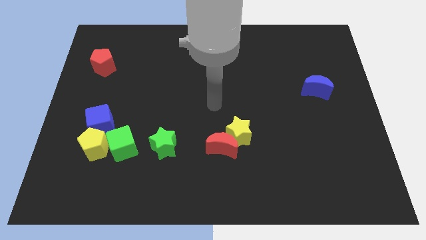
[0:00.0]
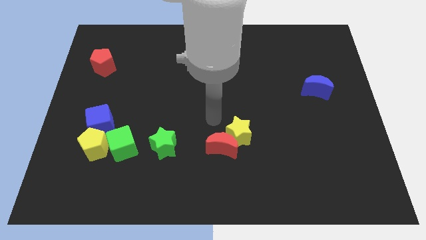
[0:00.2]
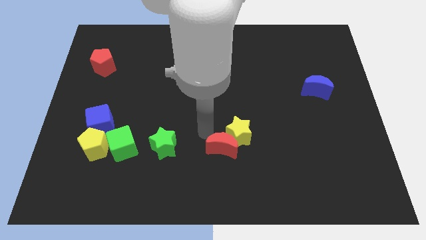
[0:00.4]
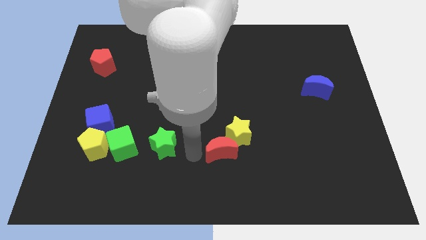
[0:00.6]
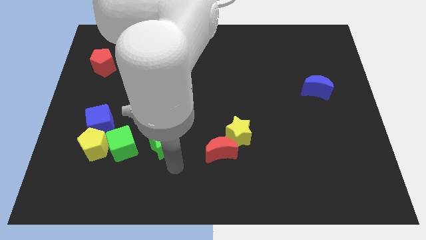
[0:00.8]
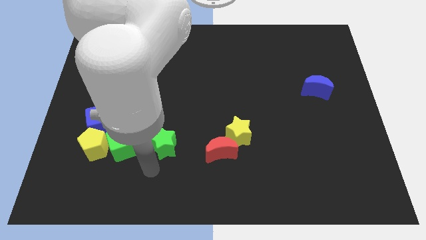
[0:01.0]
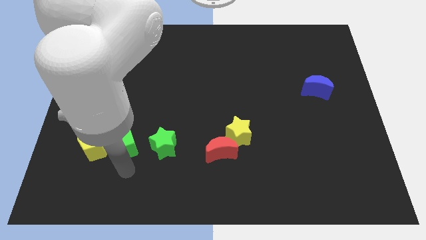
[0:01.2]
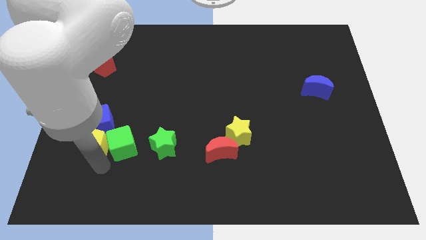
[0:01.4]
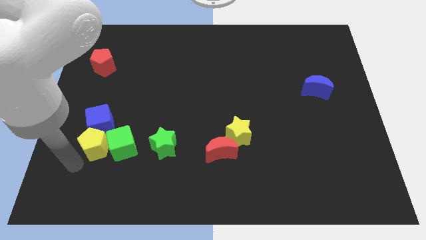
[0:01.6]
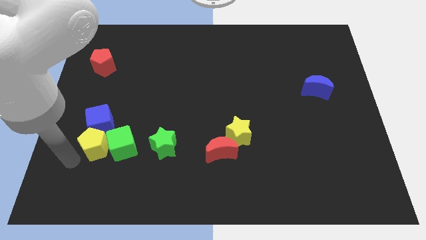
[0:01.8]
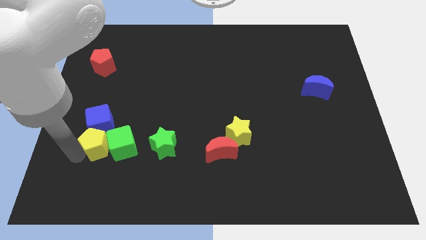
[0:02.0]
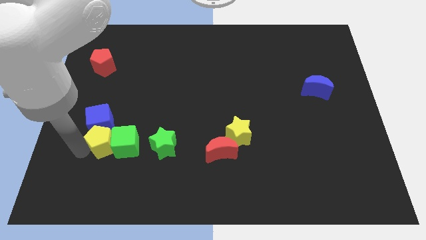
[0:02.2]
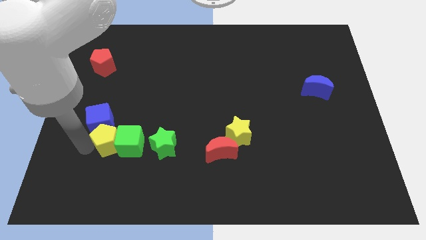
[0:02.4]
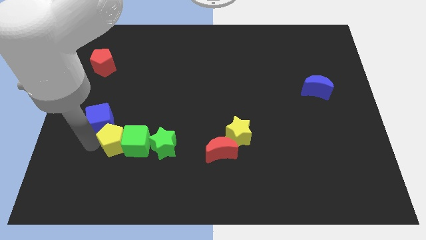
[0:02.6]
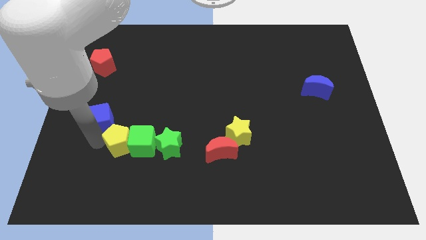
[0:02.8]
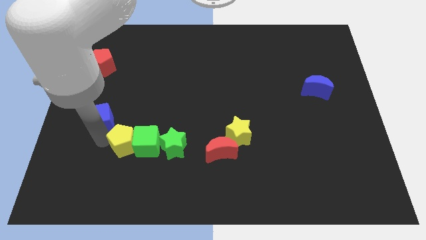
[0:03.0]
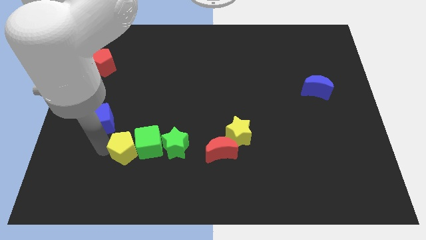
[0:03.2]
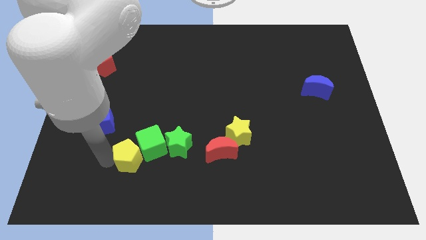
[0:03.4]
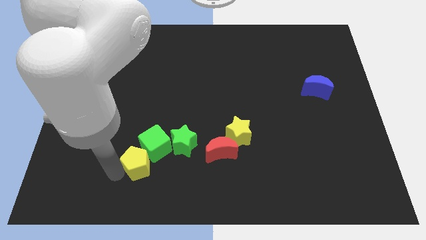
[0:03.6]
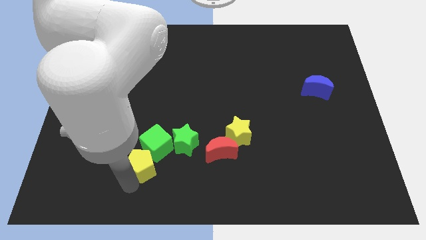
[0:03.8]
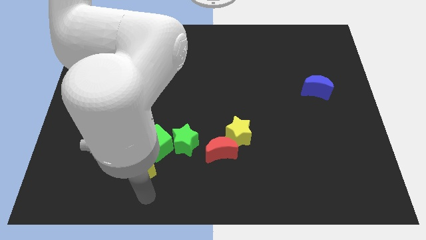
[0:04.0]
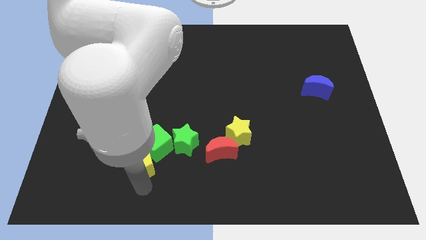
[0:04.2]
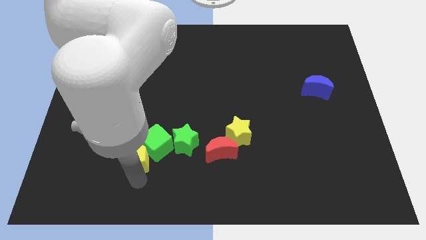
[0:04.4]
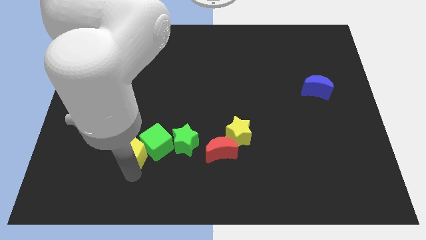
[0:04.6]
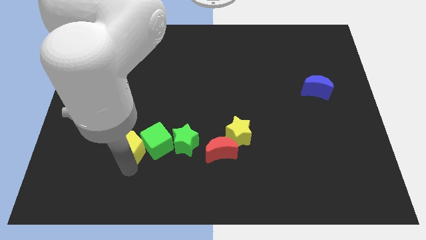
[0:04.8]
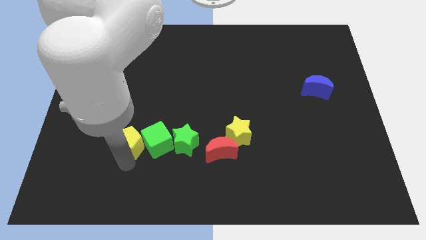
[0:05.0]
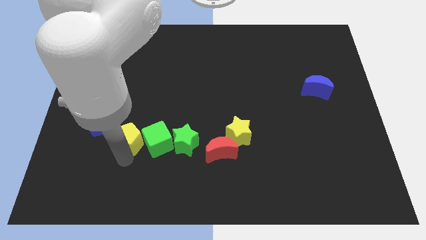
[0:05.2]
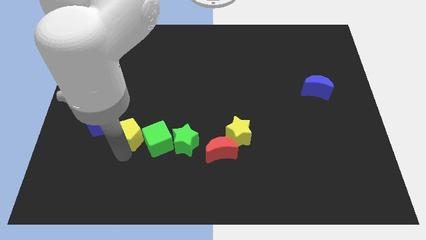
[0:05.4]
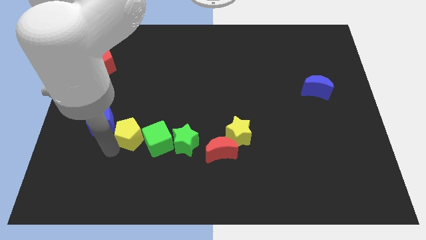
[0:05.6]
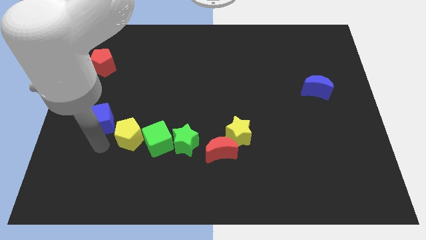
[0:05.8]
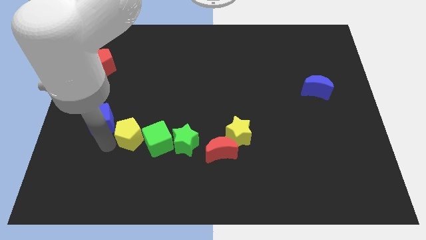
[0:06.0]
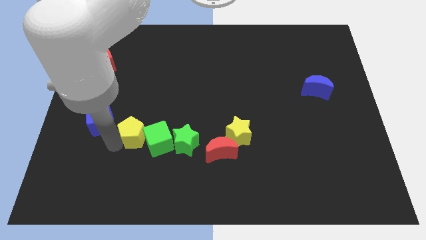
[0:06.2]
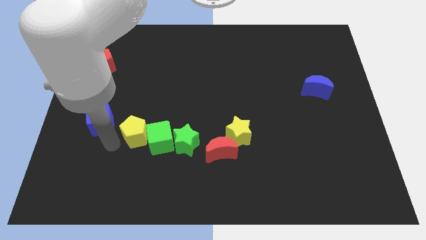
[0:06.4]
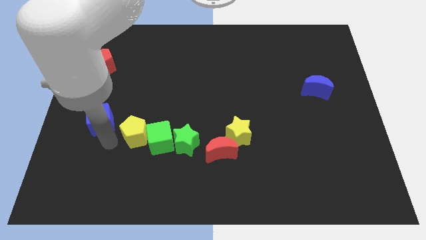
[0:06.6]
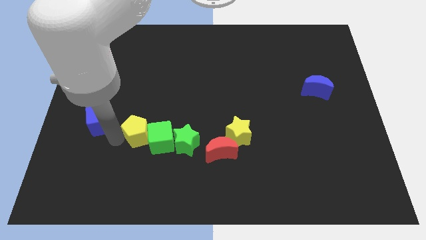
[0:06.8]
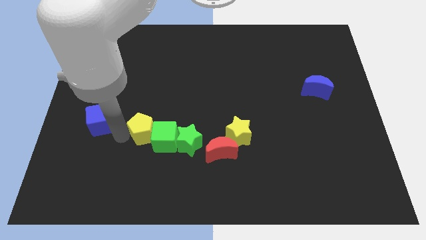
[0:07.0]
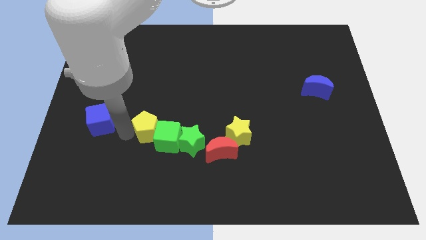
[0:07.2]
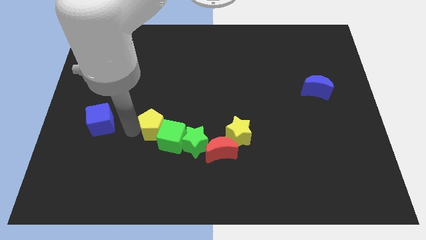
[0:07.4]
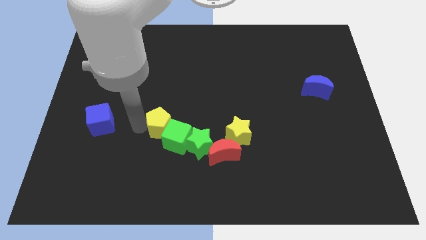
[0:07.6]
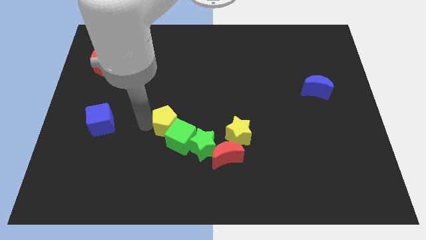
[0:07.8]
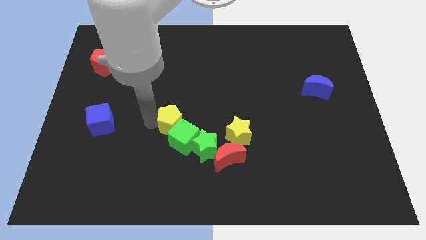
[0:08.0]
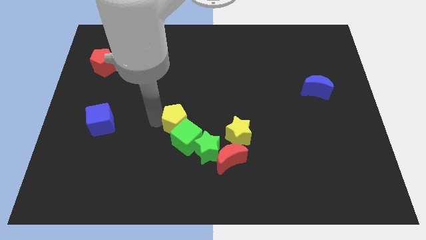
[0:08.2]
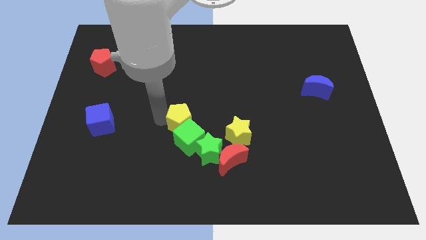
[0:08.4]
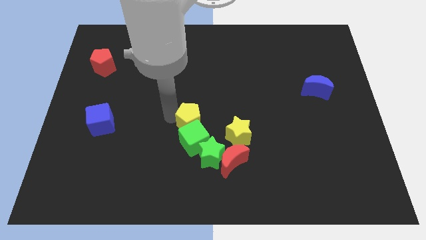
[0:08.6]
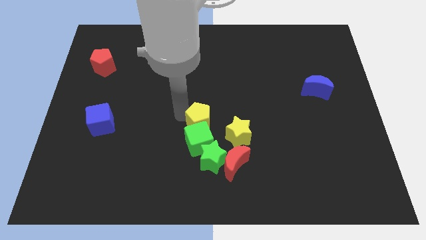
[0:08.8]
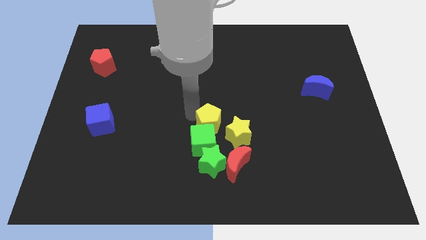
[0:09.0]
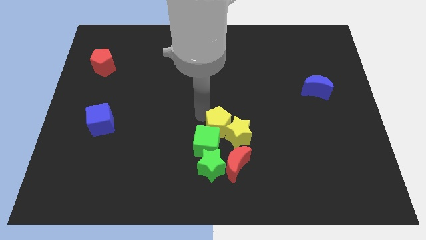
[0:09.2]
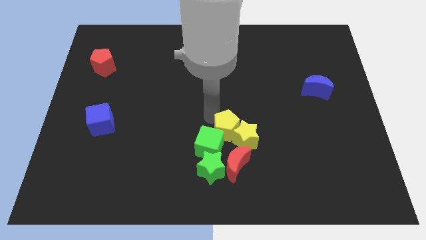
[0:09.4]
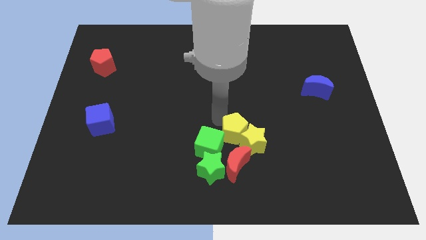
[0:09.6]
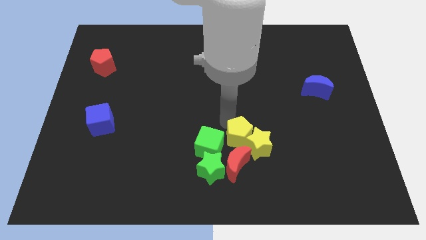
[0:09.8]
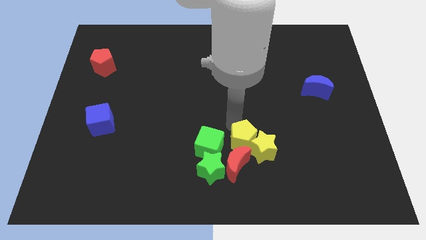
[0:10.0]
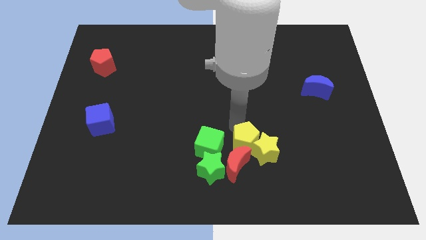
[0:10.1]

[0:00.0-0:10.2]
move the yellow pentagon to the red moon

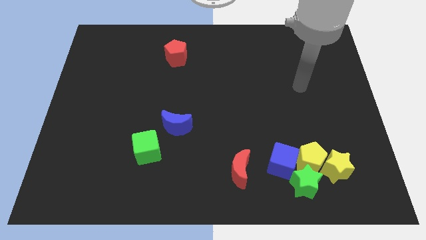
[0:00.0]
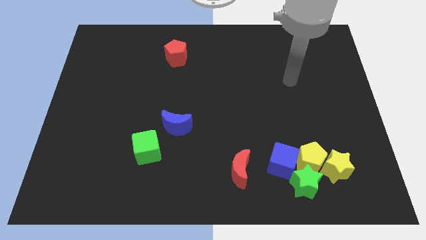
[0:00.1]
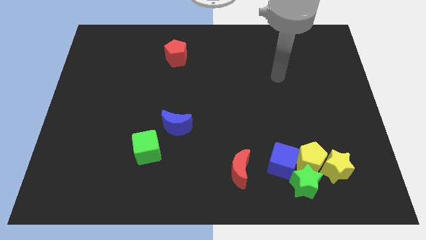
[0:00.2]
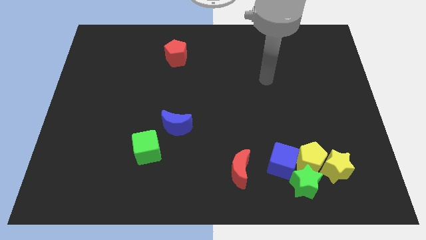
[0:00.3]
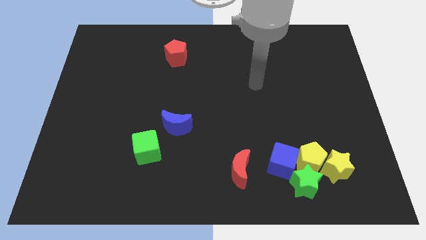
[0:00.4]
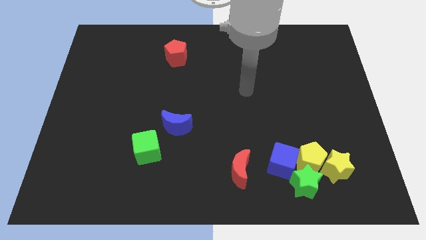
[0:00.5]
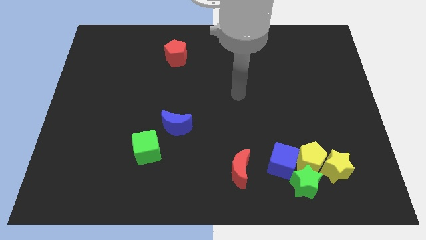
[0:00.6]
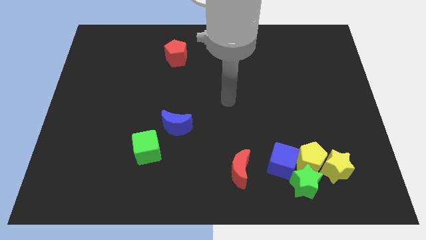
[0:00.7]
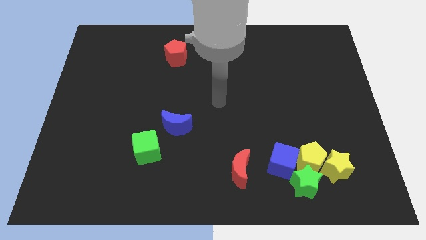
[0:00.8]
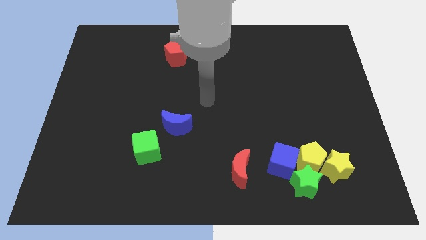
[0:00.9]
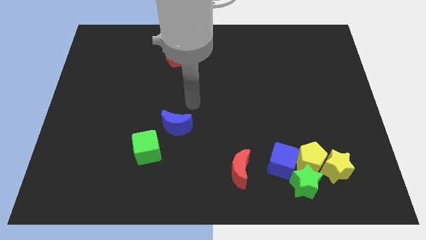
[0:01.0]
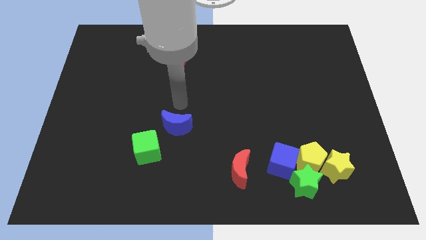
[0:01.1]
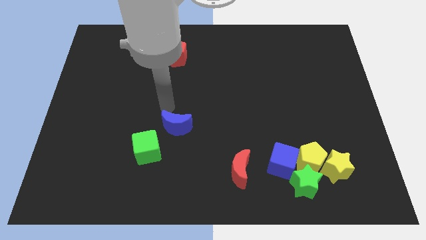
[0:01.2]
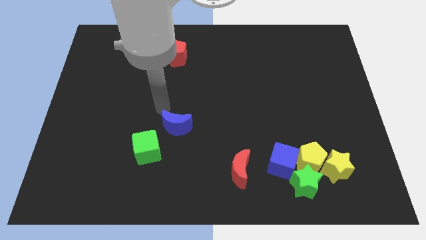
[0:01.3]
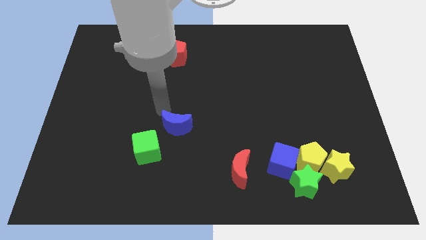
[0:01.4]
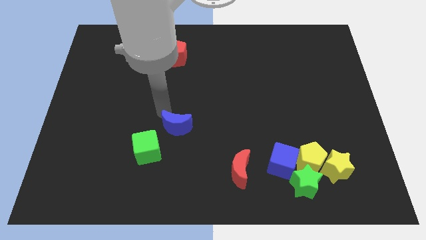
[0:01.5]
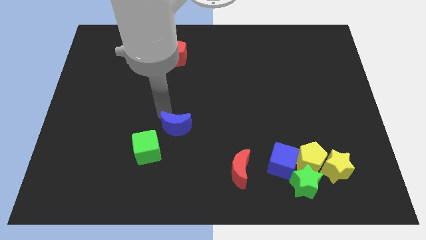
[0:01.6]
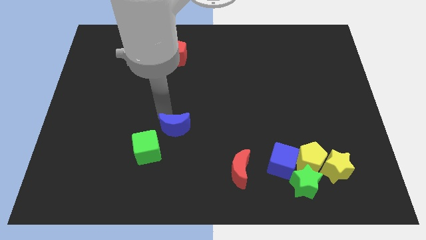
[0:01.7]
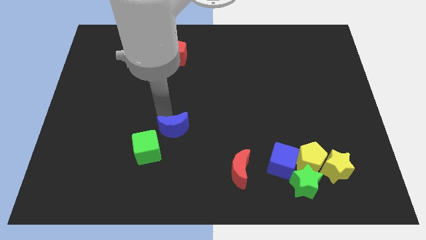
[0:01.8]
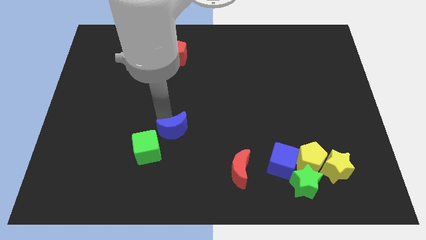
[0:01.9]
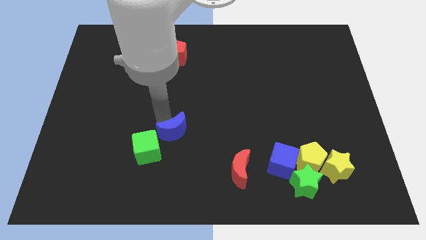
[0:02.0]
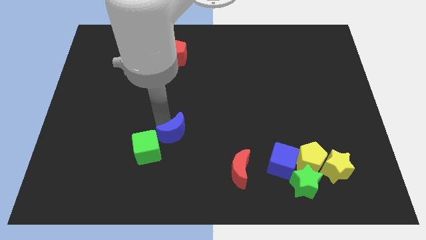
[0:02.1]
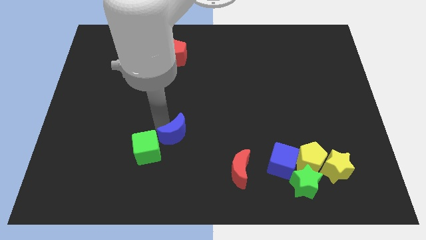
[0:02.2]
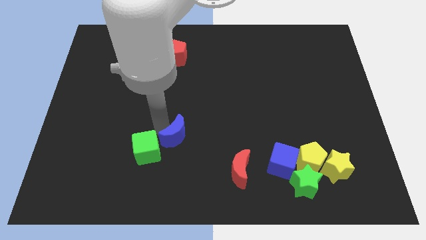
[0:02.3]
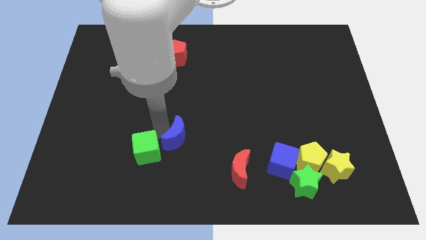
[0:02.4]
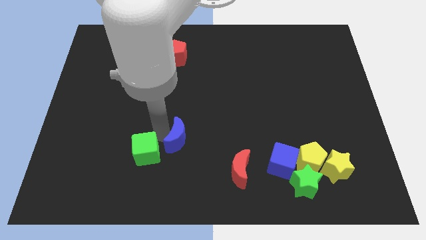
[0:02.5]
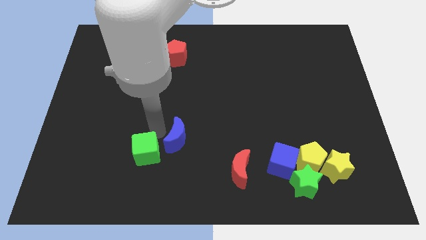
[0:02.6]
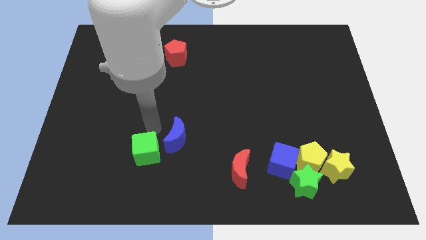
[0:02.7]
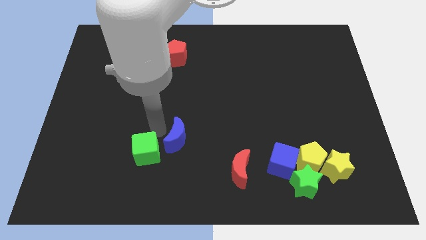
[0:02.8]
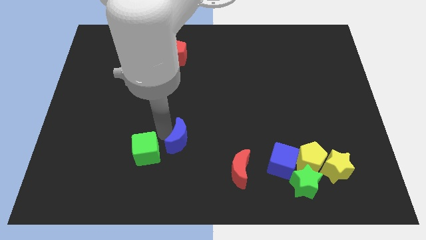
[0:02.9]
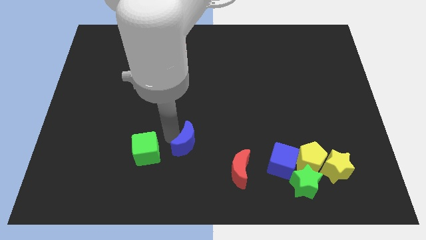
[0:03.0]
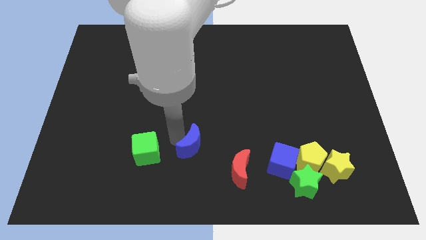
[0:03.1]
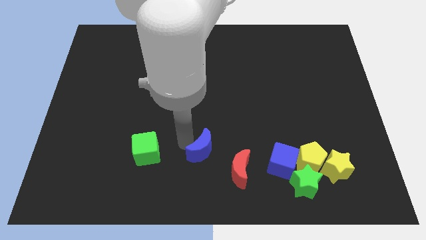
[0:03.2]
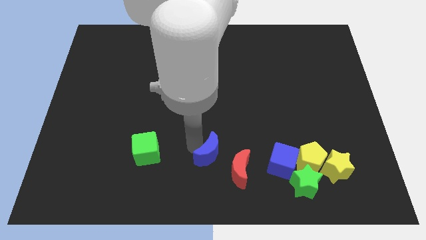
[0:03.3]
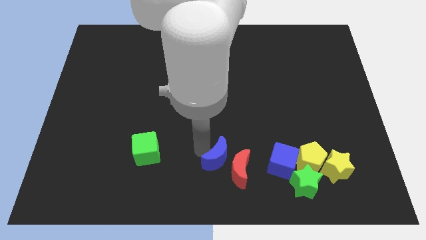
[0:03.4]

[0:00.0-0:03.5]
push the blue moon next to the red moon
